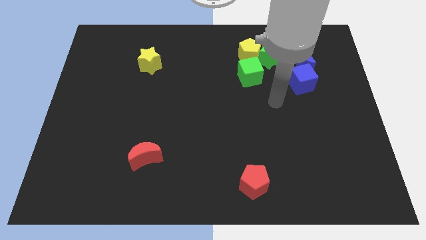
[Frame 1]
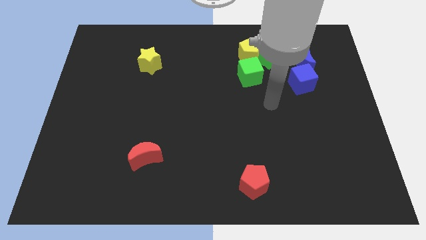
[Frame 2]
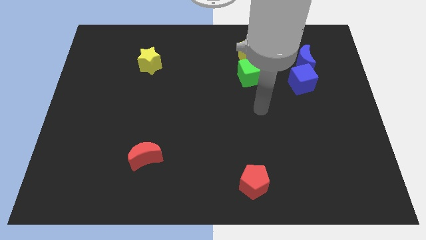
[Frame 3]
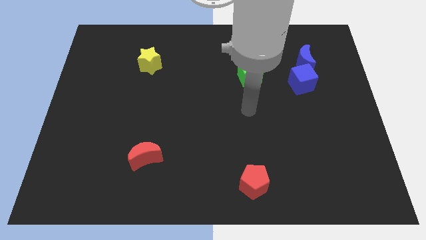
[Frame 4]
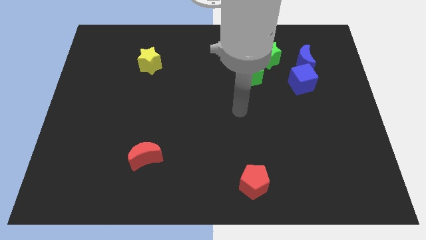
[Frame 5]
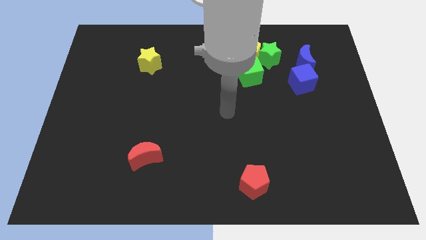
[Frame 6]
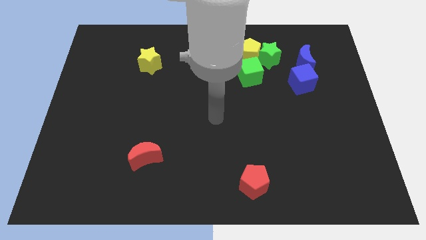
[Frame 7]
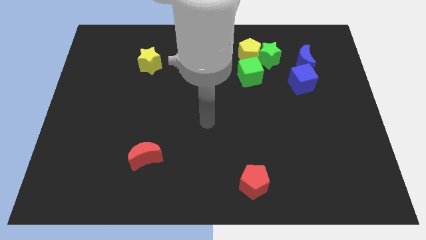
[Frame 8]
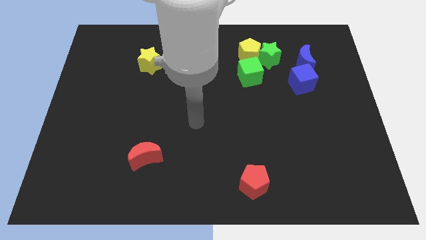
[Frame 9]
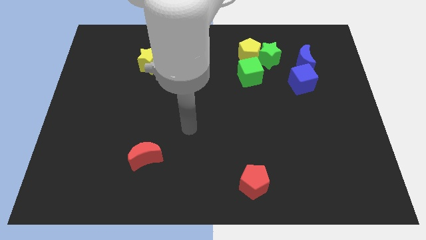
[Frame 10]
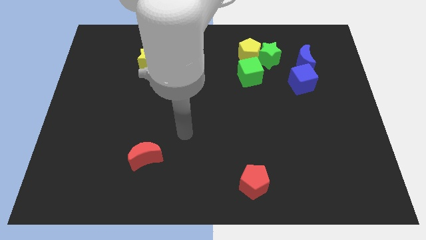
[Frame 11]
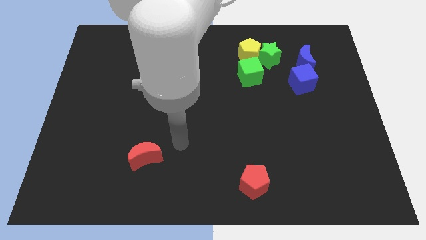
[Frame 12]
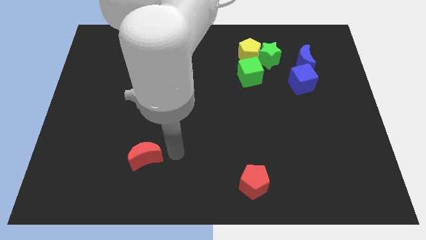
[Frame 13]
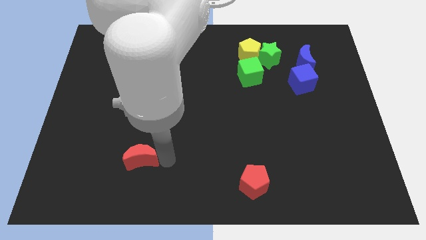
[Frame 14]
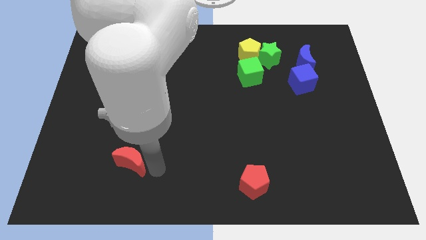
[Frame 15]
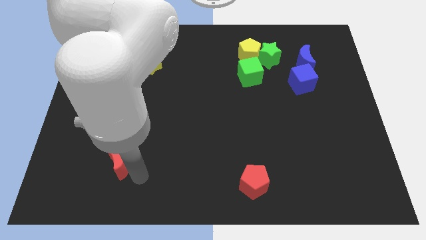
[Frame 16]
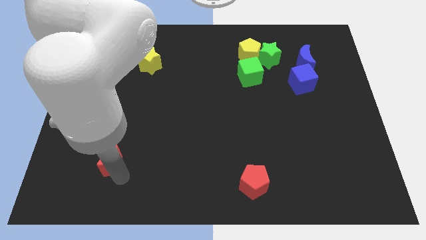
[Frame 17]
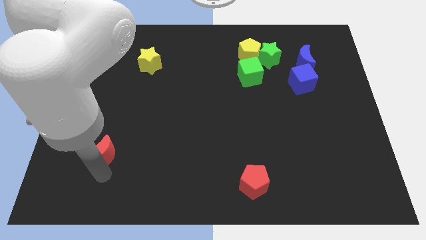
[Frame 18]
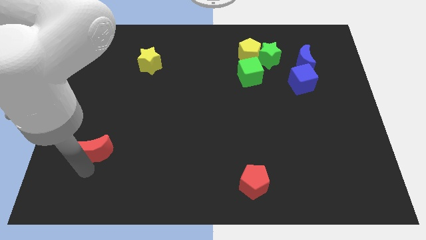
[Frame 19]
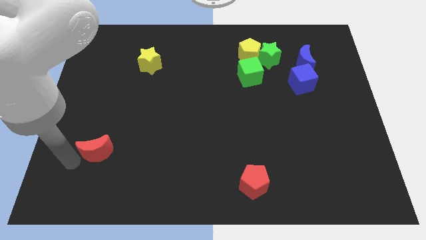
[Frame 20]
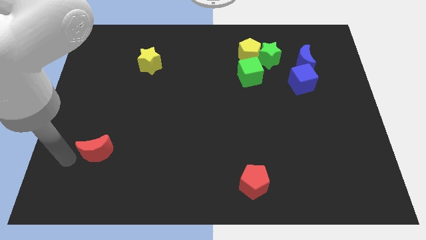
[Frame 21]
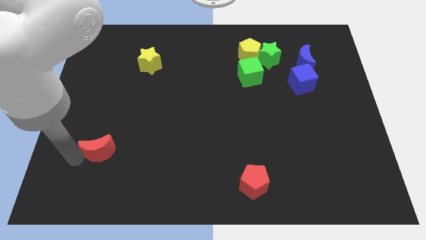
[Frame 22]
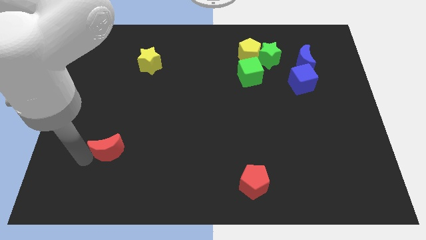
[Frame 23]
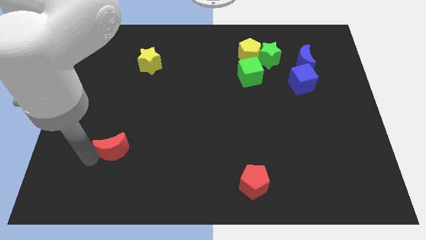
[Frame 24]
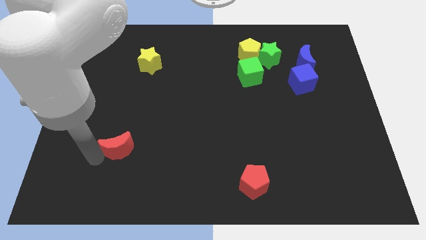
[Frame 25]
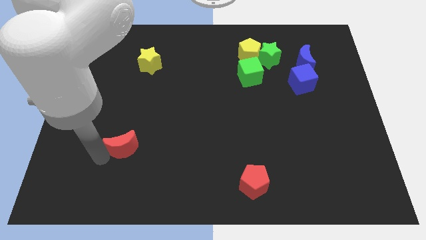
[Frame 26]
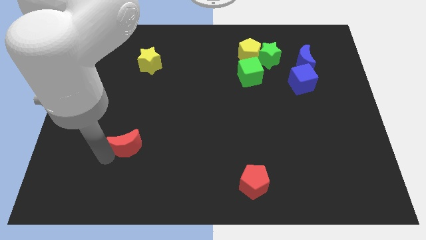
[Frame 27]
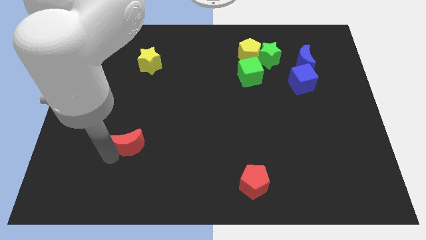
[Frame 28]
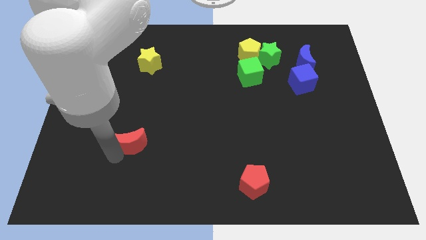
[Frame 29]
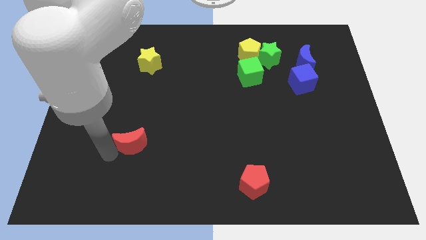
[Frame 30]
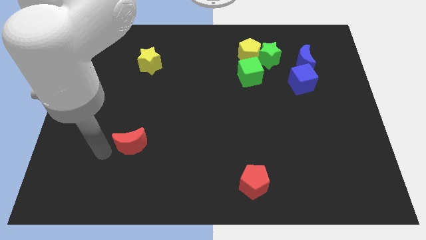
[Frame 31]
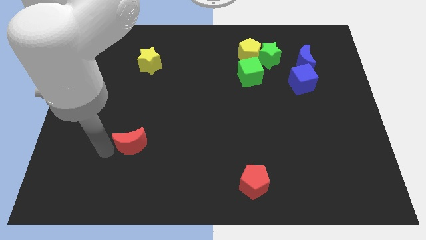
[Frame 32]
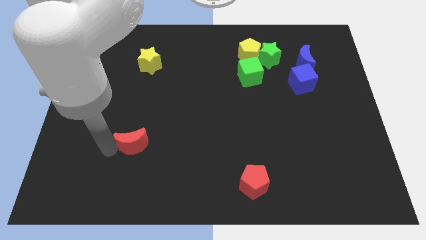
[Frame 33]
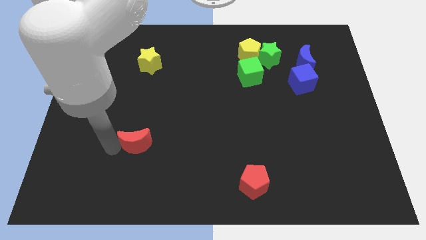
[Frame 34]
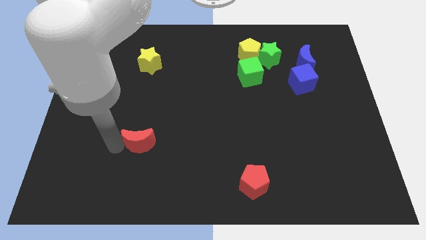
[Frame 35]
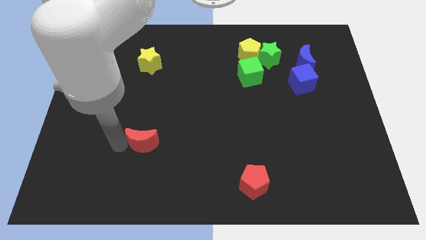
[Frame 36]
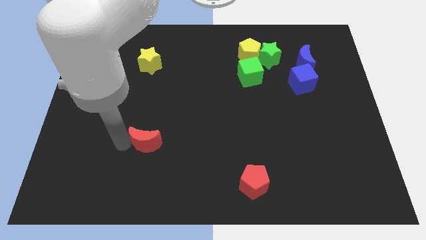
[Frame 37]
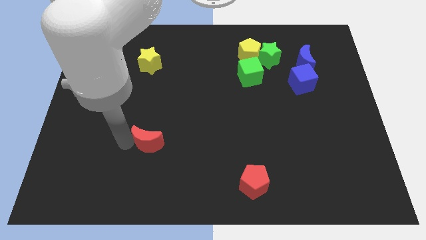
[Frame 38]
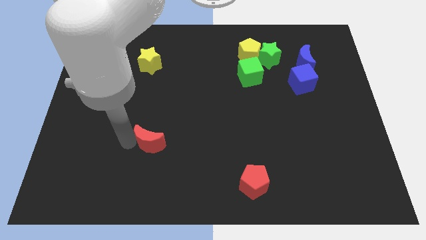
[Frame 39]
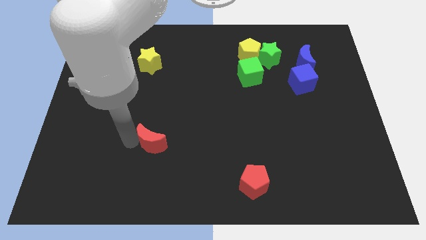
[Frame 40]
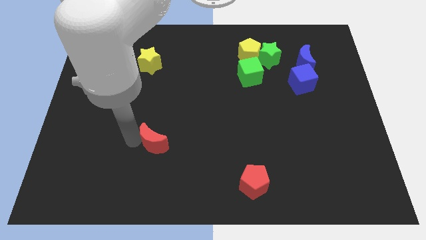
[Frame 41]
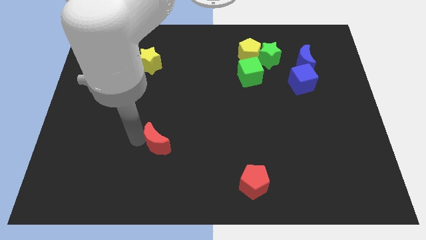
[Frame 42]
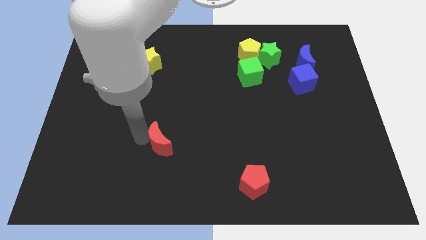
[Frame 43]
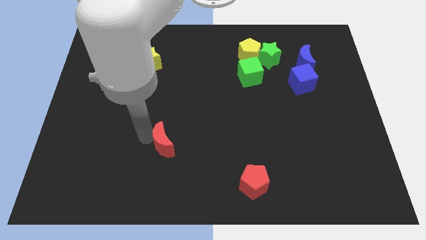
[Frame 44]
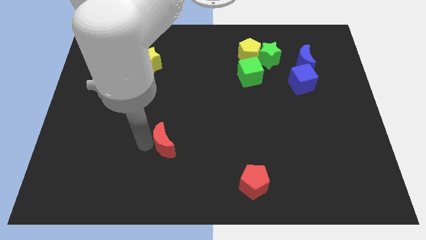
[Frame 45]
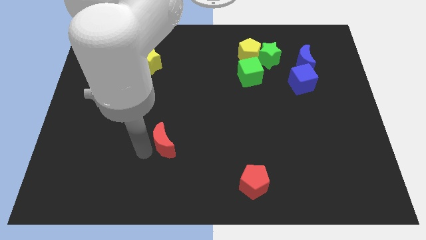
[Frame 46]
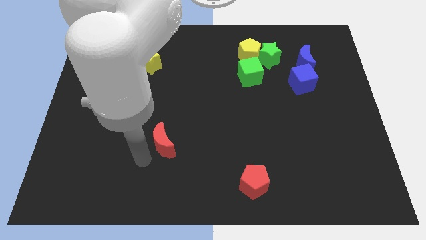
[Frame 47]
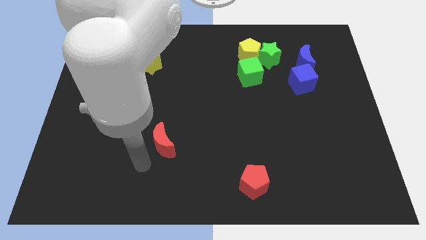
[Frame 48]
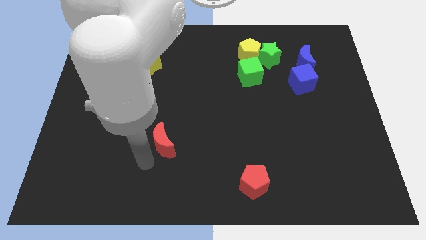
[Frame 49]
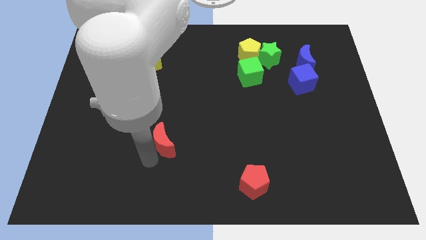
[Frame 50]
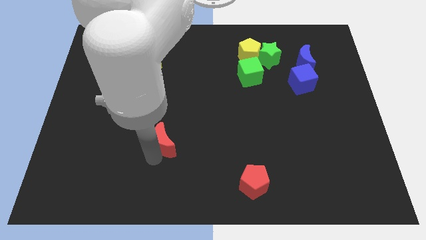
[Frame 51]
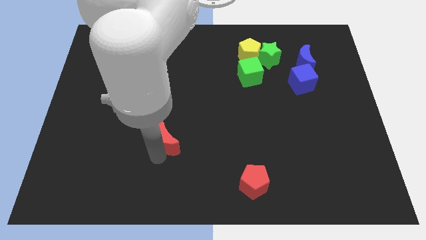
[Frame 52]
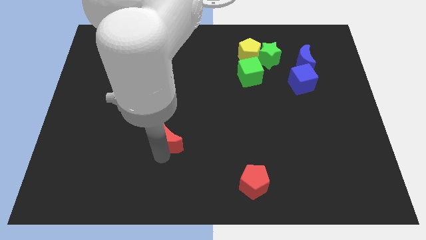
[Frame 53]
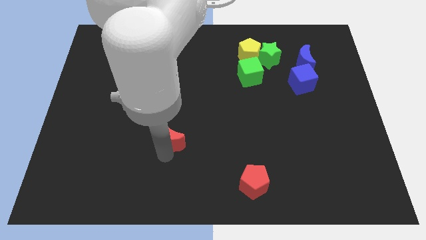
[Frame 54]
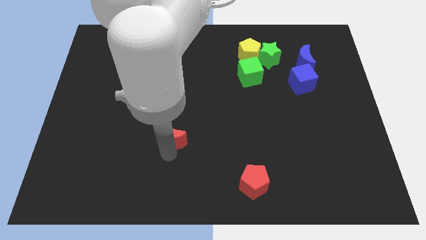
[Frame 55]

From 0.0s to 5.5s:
slightly slide the red moon diagonally up and to the right

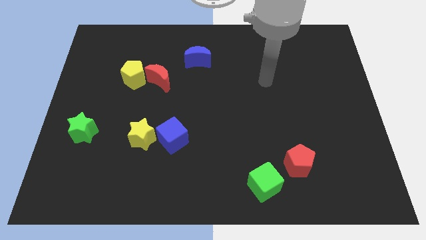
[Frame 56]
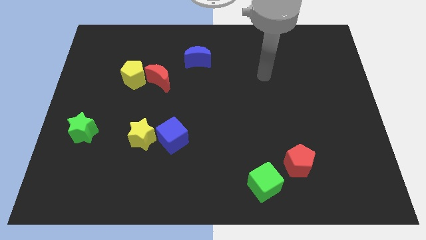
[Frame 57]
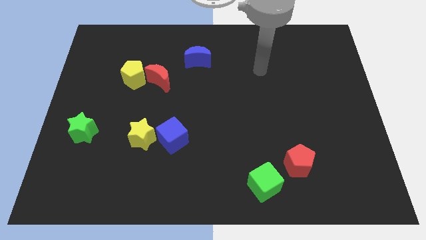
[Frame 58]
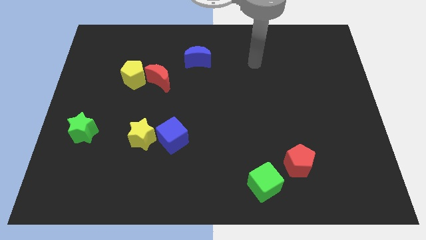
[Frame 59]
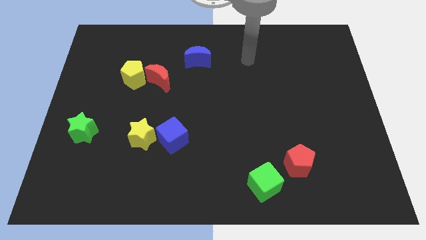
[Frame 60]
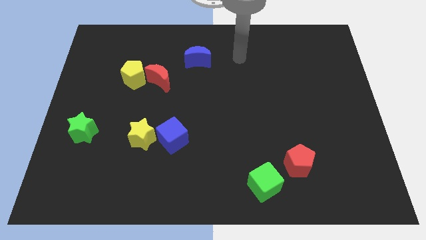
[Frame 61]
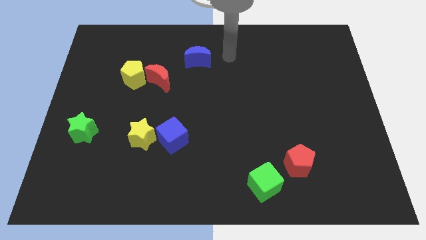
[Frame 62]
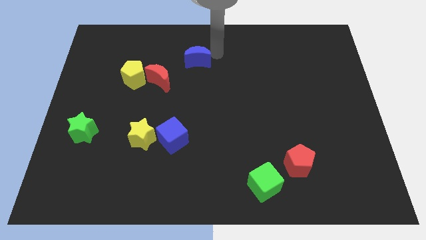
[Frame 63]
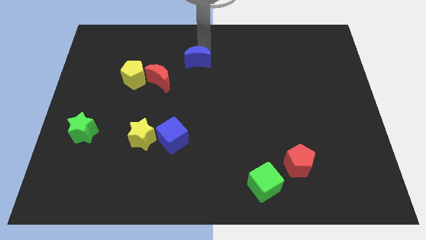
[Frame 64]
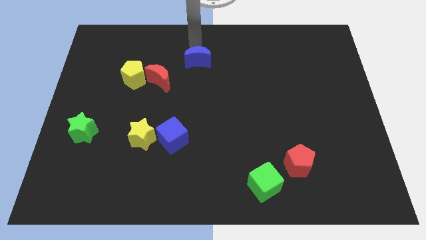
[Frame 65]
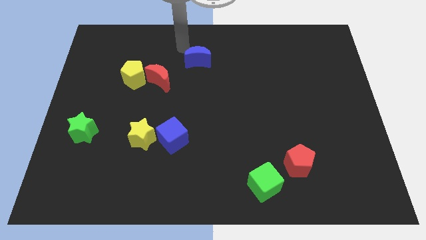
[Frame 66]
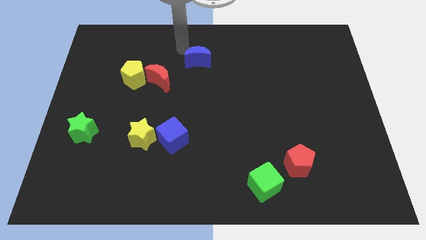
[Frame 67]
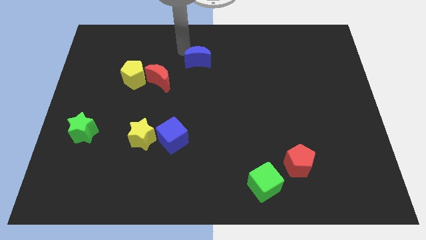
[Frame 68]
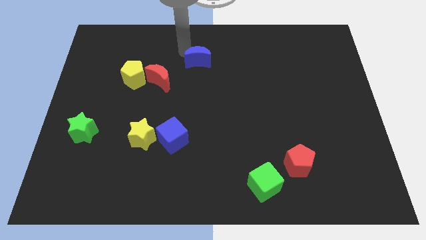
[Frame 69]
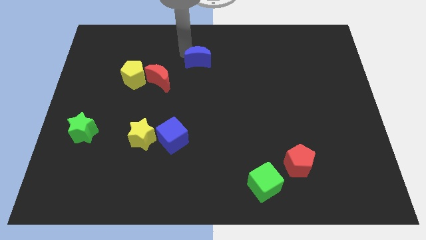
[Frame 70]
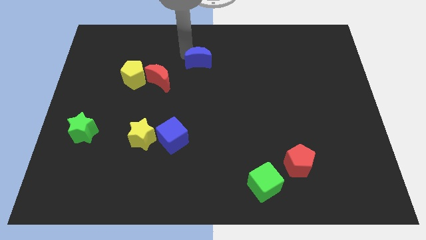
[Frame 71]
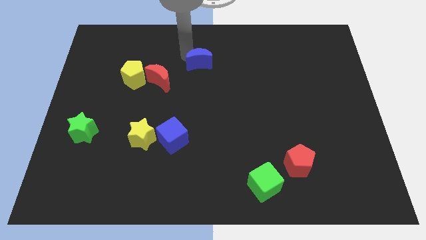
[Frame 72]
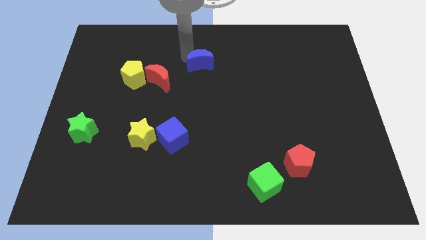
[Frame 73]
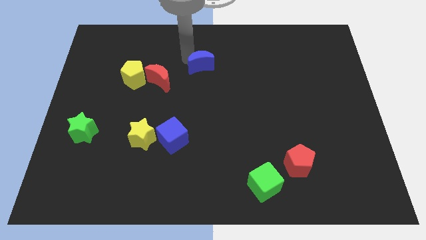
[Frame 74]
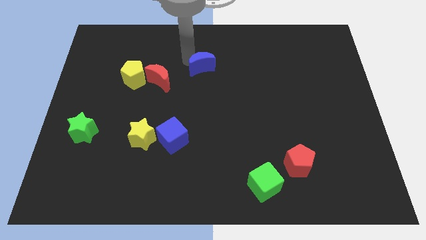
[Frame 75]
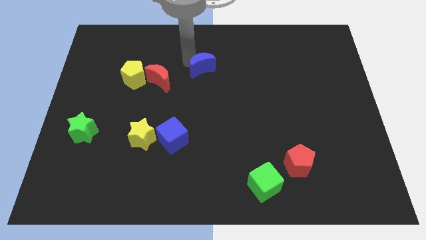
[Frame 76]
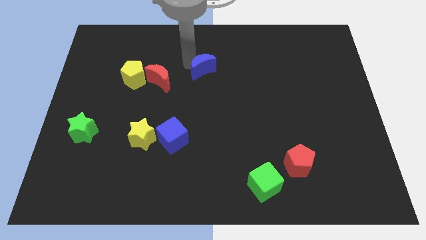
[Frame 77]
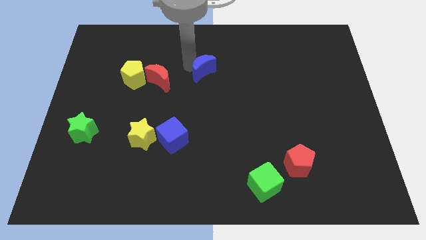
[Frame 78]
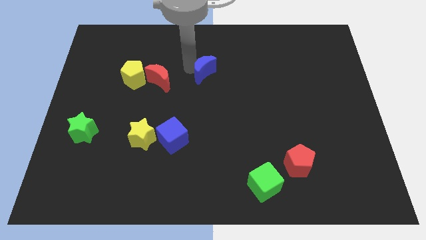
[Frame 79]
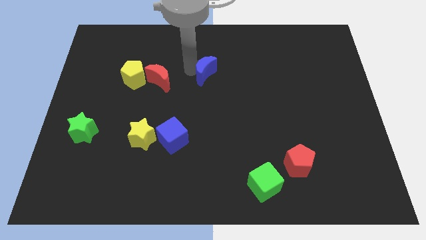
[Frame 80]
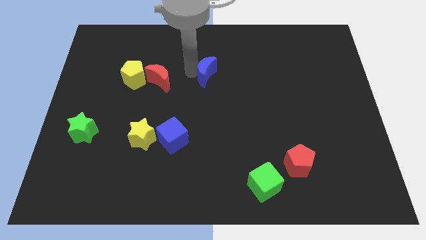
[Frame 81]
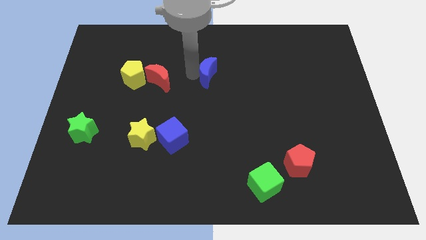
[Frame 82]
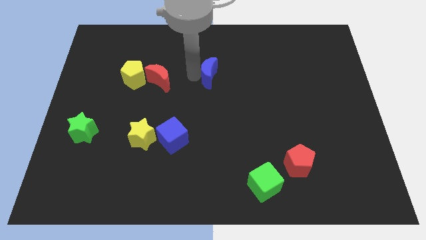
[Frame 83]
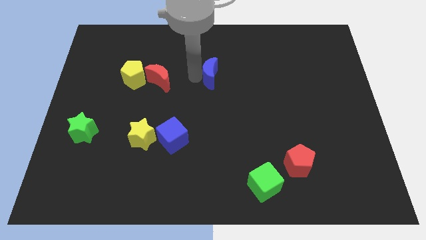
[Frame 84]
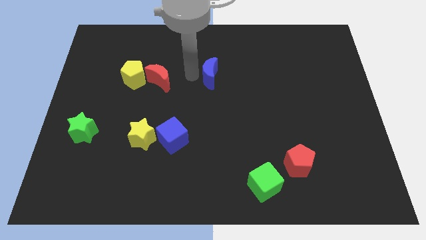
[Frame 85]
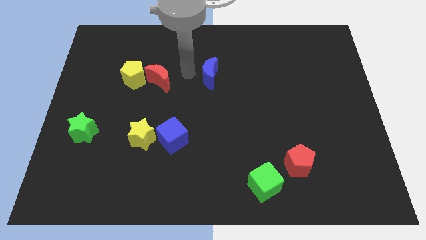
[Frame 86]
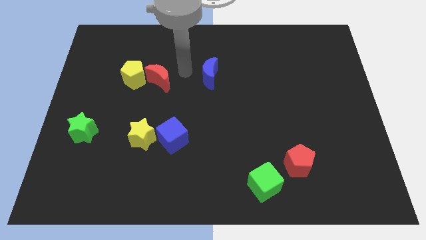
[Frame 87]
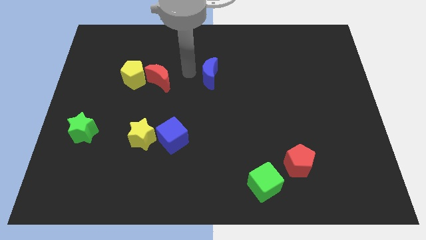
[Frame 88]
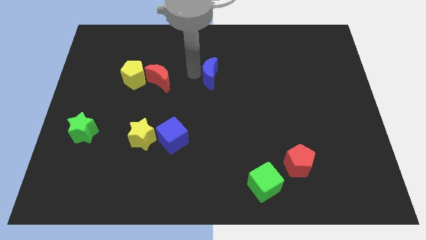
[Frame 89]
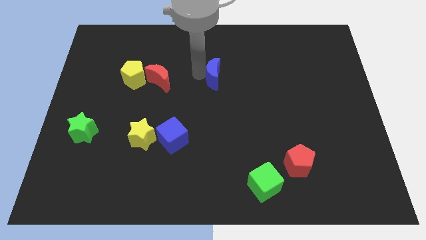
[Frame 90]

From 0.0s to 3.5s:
slide the blue moon somewhat diagonally downwards and right
